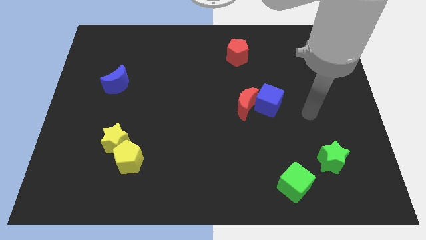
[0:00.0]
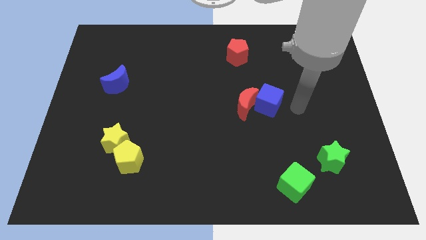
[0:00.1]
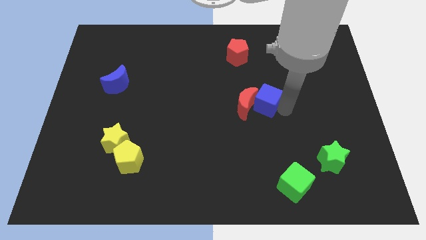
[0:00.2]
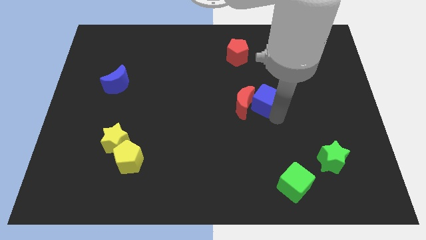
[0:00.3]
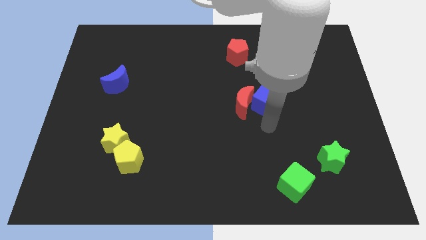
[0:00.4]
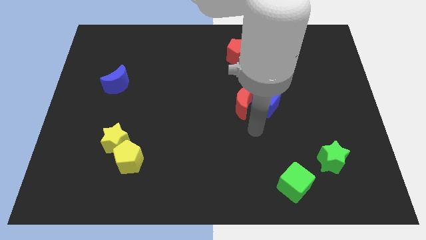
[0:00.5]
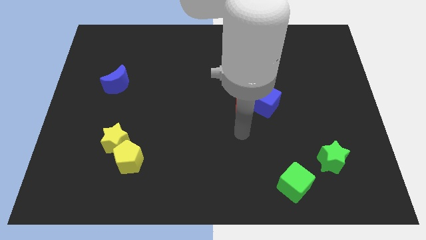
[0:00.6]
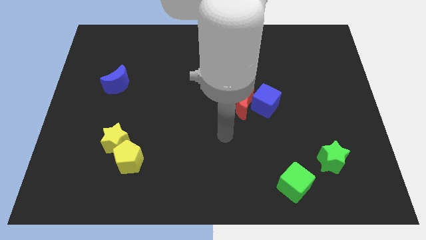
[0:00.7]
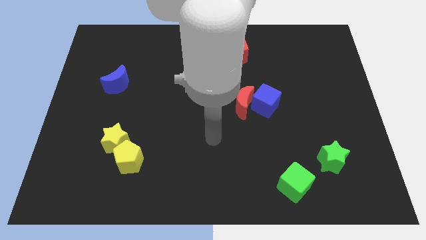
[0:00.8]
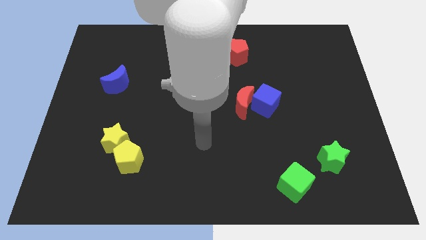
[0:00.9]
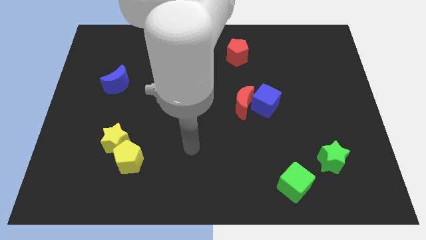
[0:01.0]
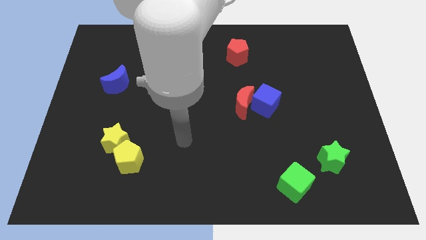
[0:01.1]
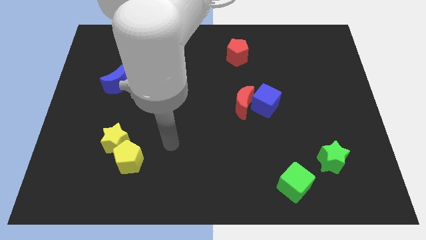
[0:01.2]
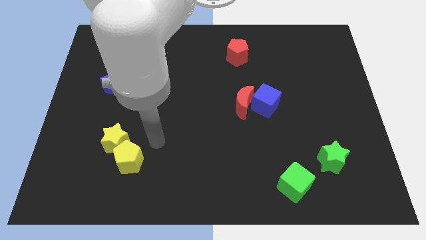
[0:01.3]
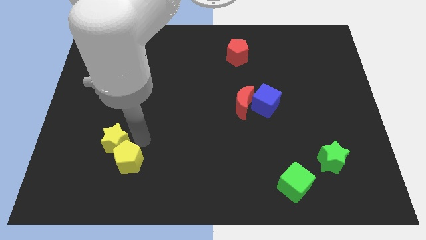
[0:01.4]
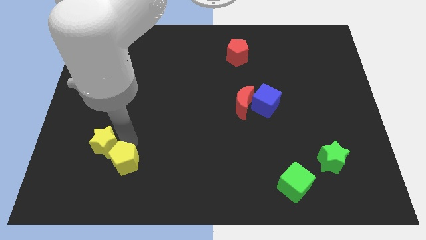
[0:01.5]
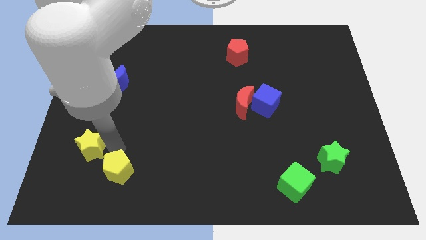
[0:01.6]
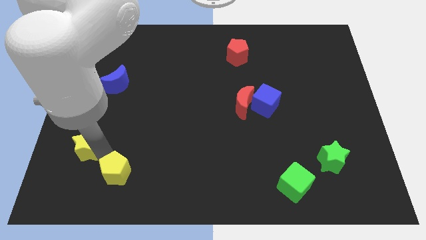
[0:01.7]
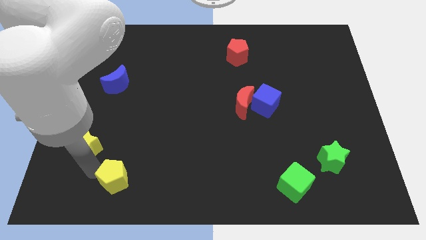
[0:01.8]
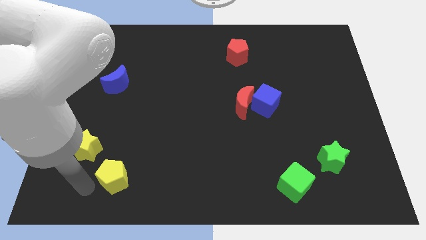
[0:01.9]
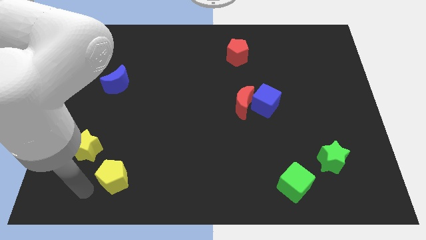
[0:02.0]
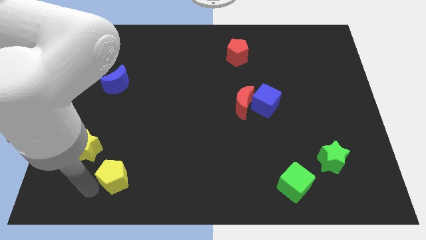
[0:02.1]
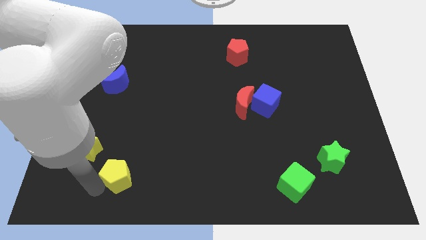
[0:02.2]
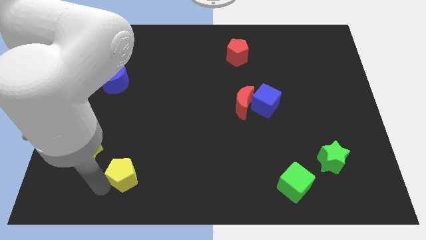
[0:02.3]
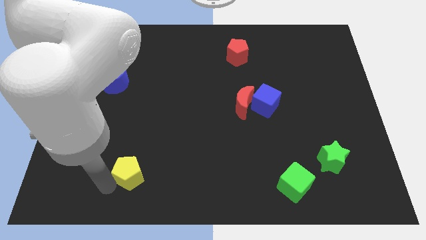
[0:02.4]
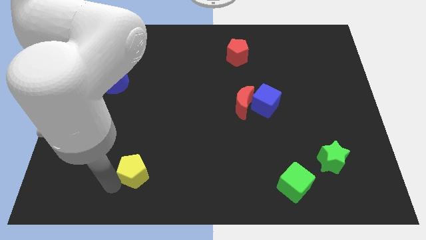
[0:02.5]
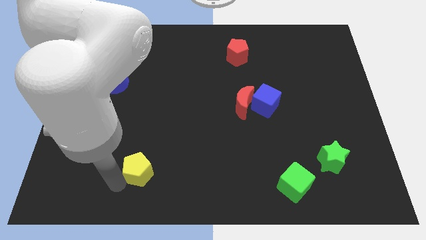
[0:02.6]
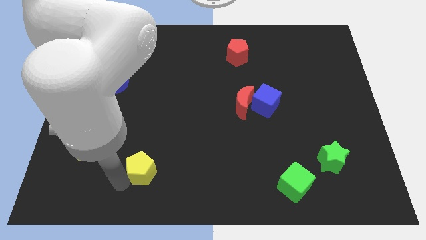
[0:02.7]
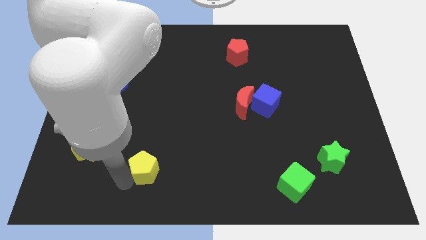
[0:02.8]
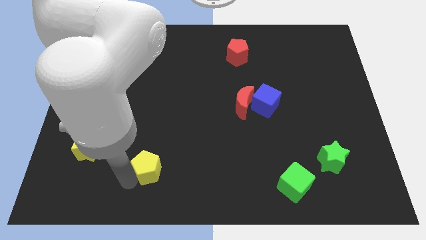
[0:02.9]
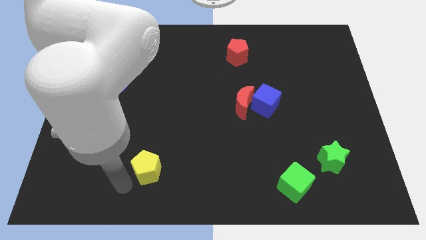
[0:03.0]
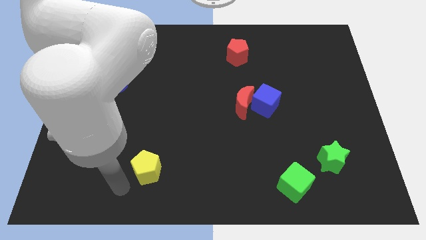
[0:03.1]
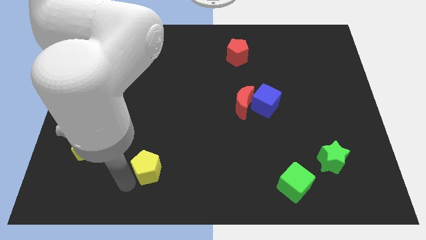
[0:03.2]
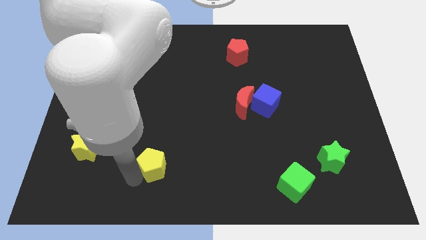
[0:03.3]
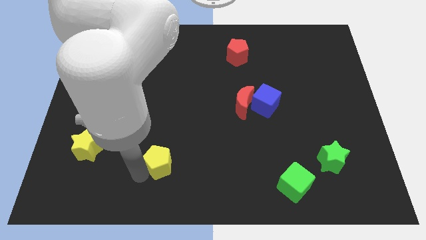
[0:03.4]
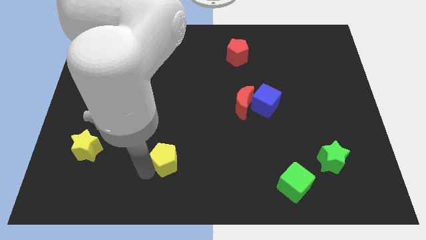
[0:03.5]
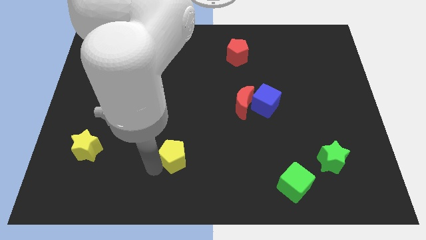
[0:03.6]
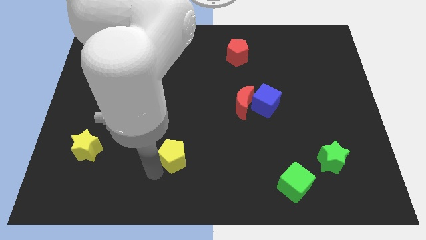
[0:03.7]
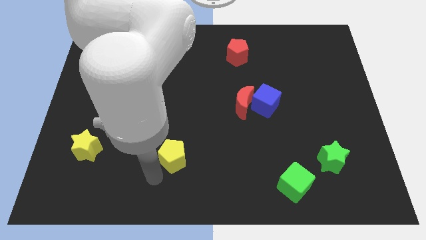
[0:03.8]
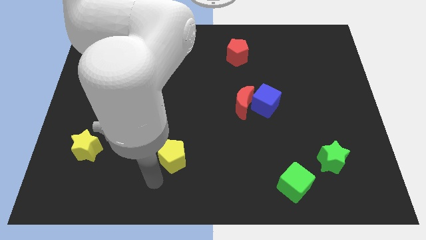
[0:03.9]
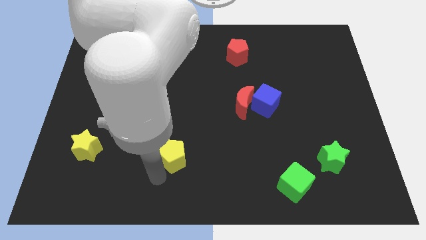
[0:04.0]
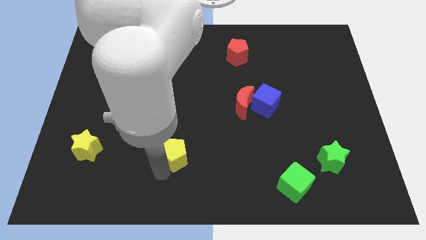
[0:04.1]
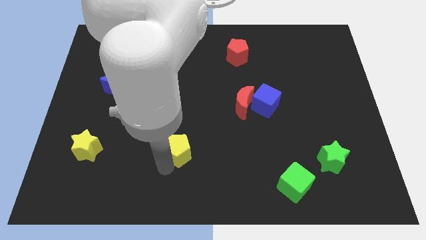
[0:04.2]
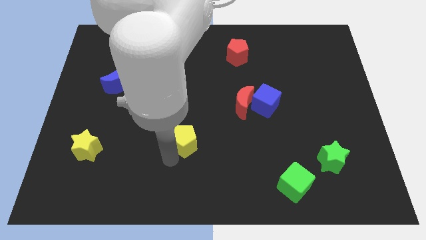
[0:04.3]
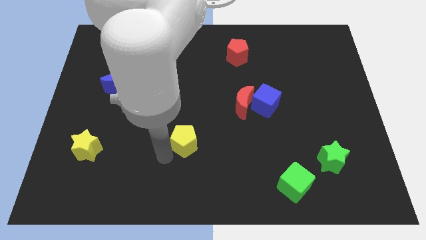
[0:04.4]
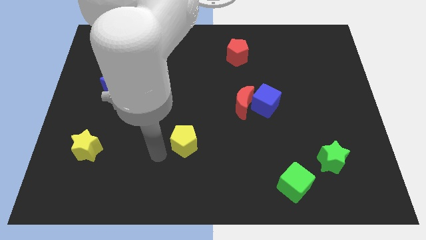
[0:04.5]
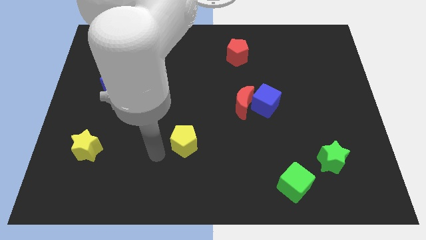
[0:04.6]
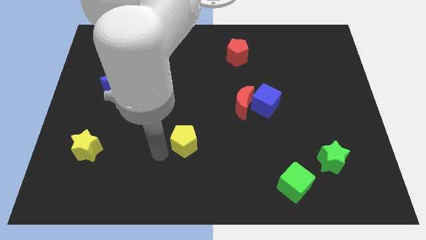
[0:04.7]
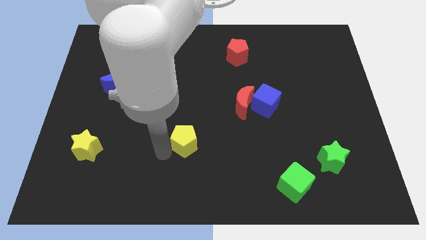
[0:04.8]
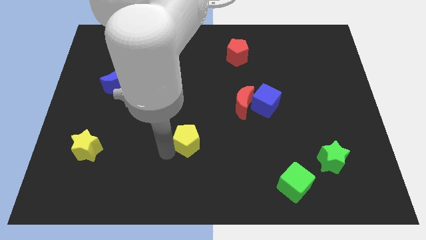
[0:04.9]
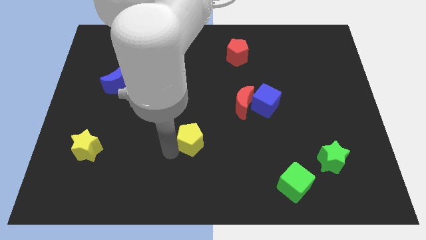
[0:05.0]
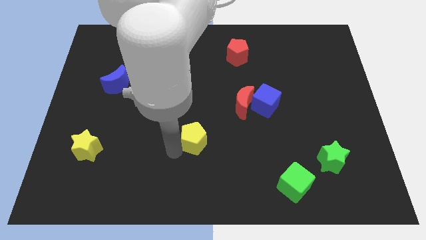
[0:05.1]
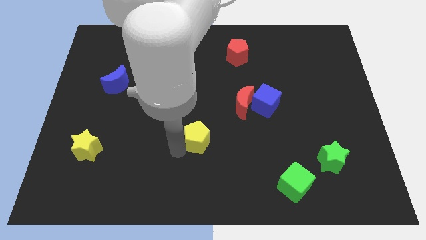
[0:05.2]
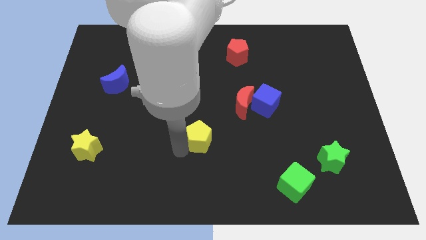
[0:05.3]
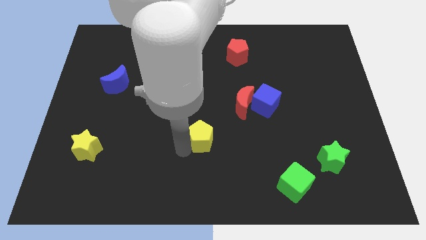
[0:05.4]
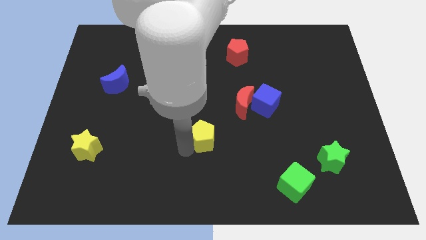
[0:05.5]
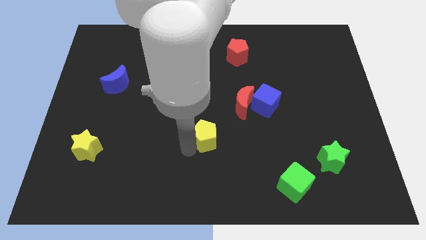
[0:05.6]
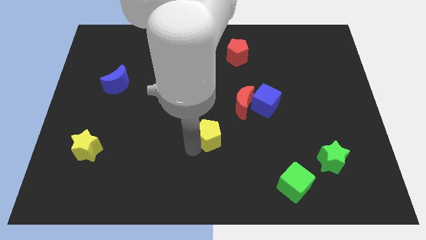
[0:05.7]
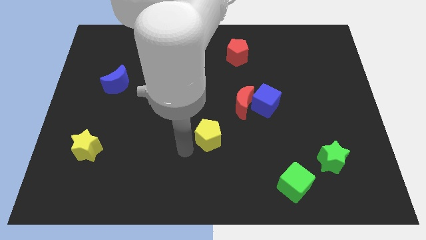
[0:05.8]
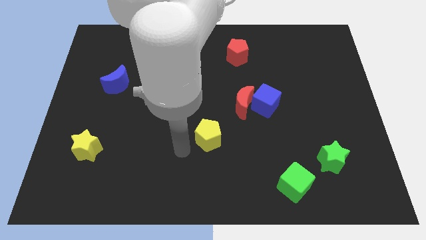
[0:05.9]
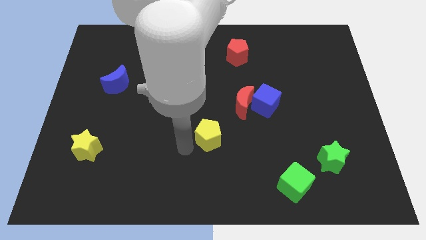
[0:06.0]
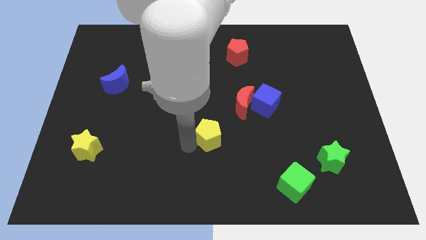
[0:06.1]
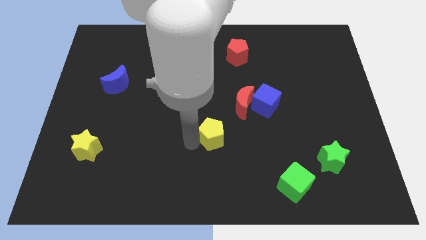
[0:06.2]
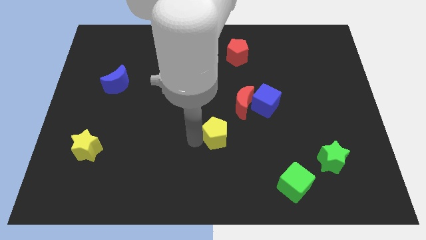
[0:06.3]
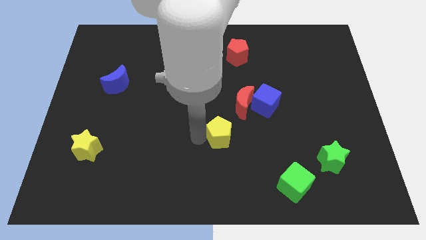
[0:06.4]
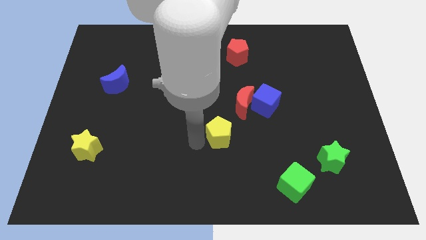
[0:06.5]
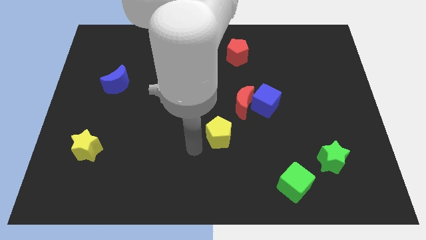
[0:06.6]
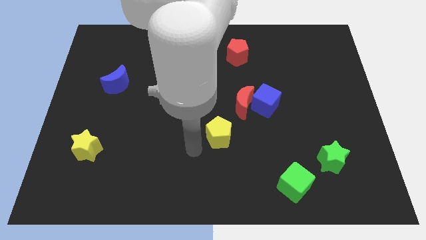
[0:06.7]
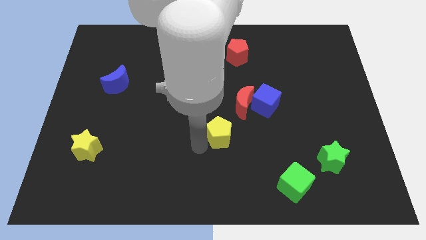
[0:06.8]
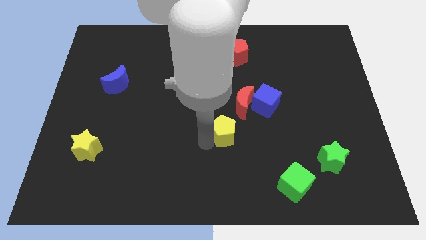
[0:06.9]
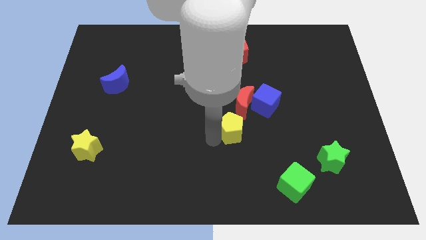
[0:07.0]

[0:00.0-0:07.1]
put the yellow pentagon to the bottom left of the blue cube
